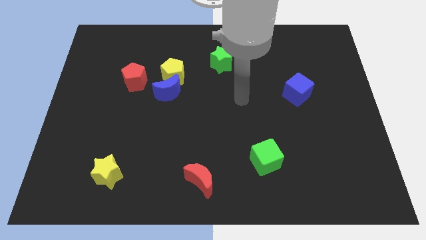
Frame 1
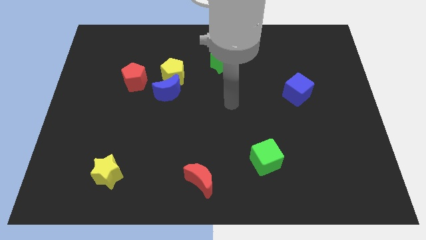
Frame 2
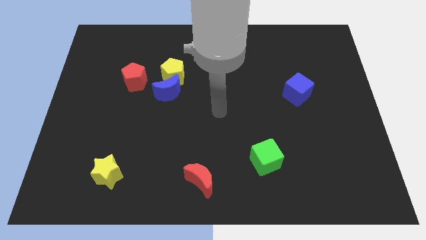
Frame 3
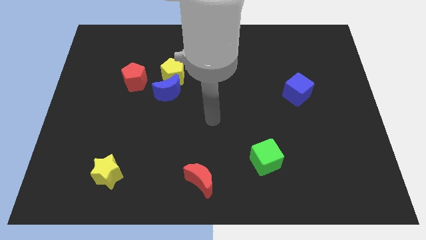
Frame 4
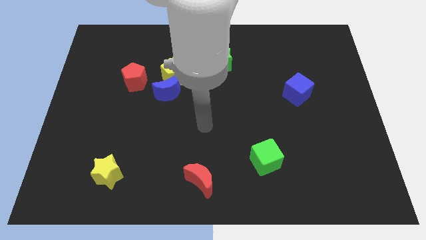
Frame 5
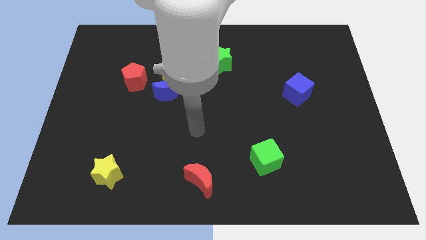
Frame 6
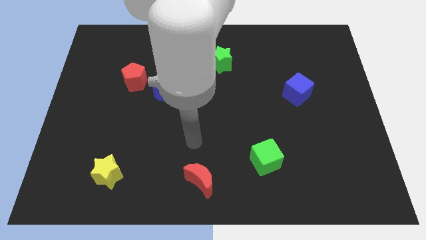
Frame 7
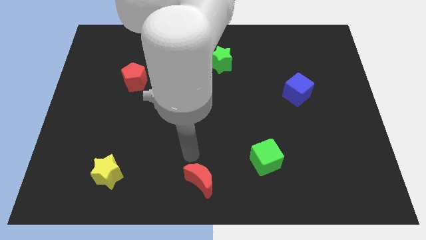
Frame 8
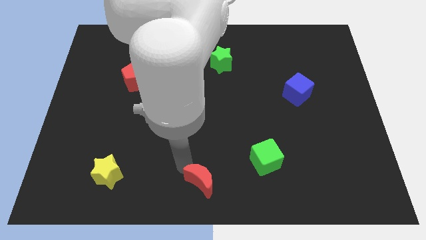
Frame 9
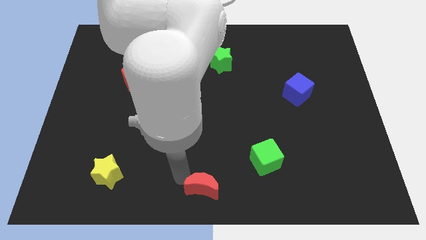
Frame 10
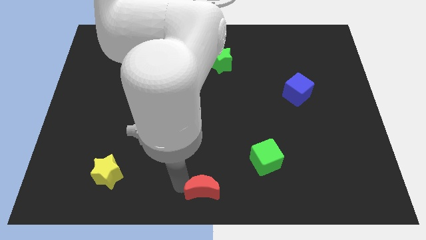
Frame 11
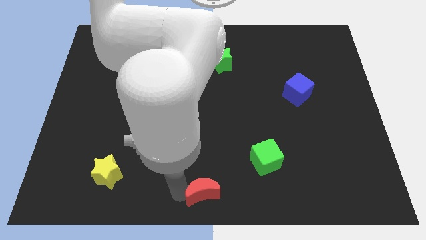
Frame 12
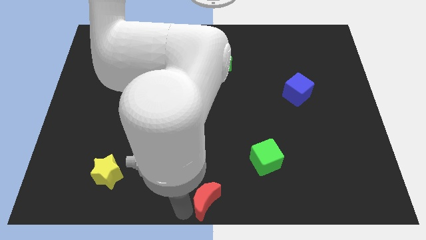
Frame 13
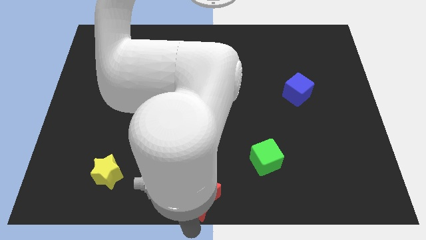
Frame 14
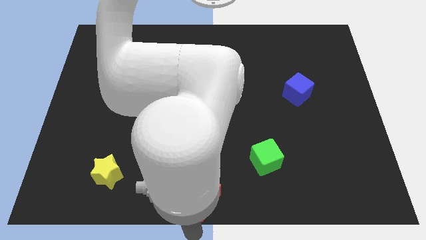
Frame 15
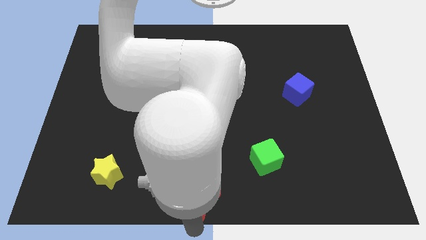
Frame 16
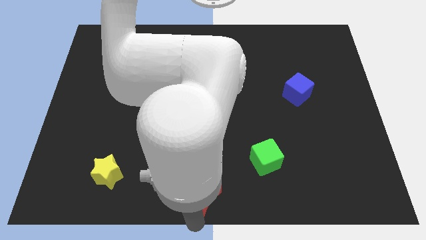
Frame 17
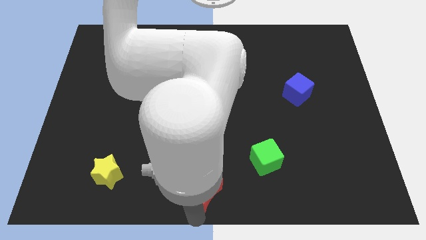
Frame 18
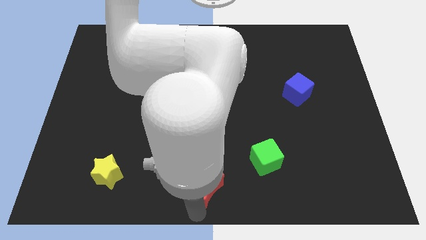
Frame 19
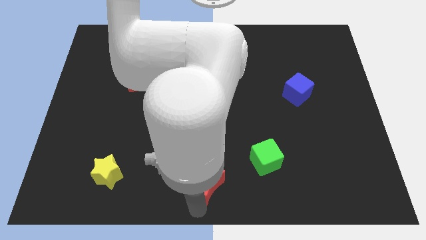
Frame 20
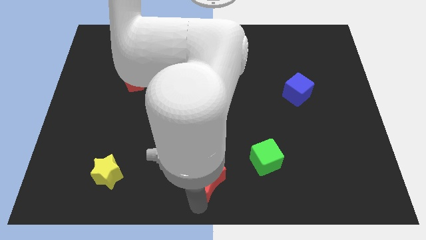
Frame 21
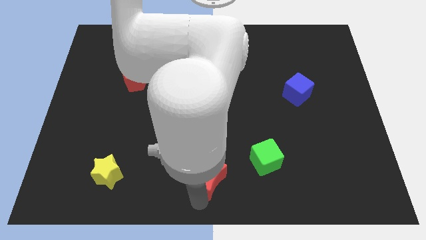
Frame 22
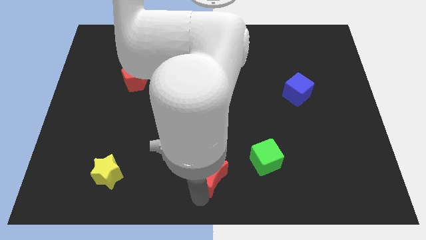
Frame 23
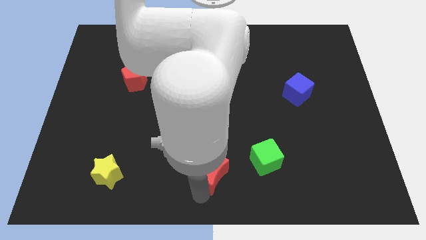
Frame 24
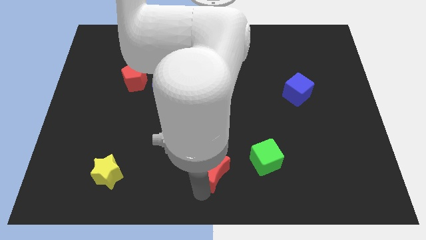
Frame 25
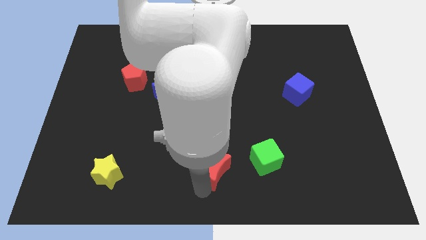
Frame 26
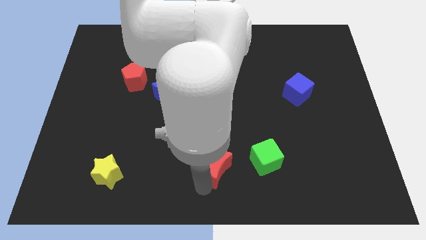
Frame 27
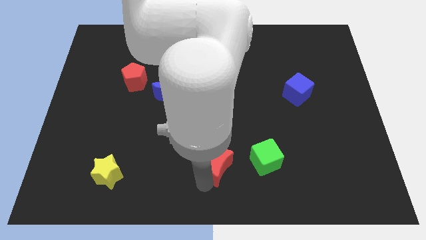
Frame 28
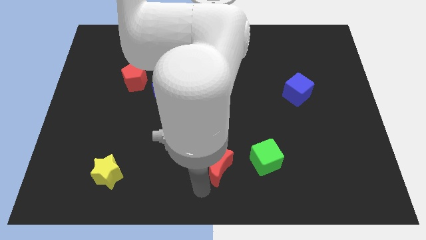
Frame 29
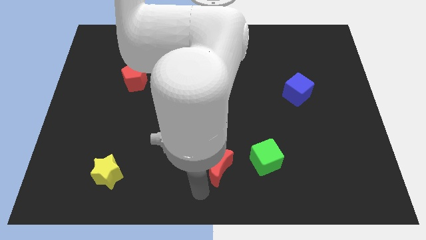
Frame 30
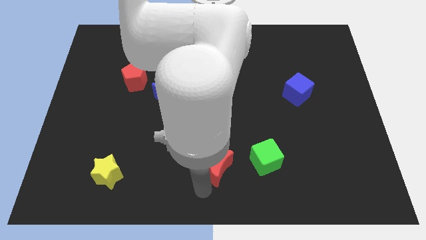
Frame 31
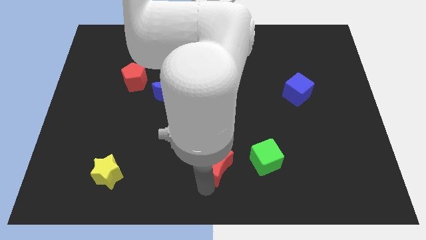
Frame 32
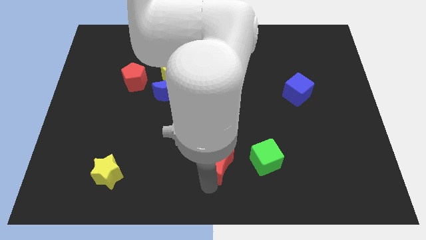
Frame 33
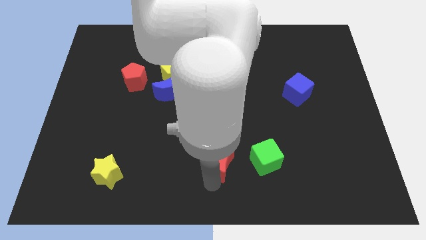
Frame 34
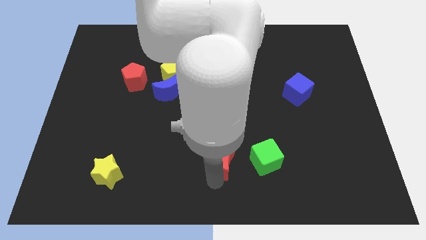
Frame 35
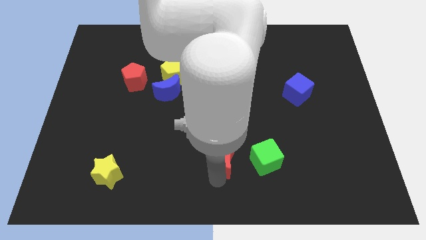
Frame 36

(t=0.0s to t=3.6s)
push the red moon a bit up and to the right diagonally

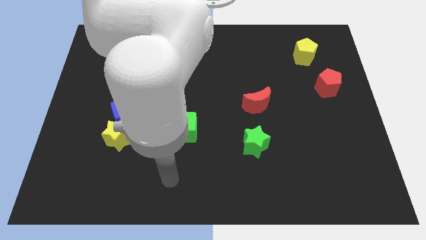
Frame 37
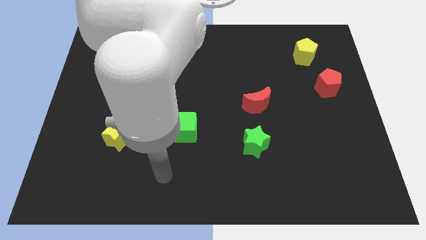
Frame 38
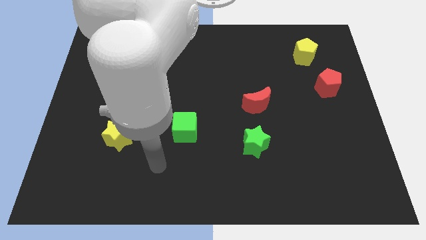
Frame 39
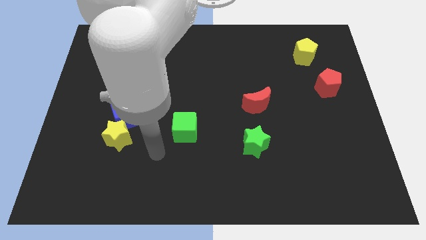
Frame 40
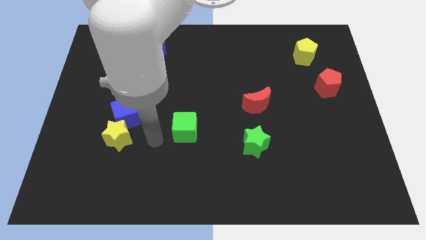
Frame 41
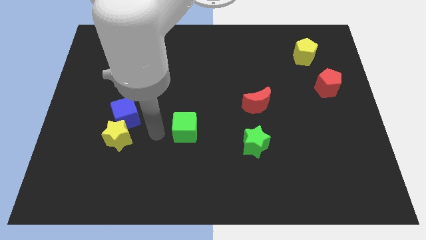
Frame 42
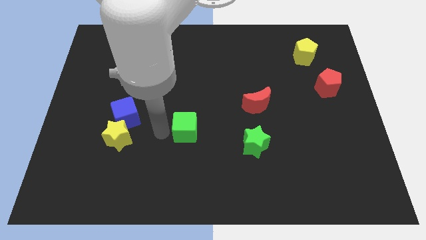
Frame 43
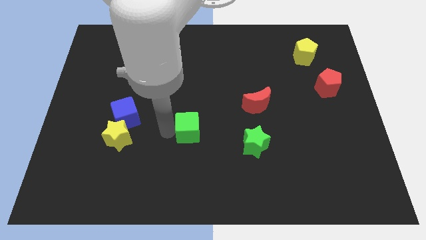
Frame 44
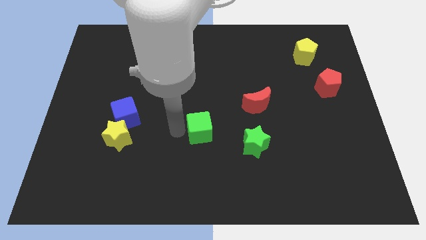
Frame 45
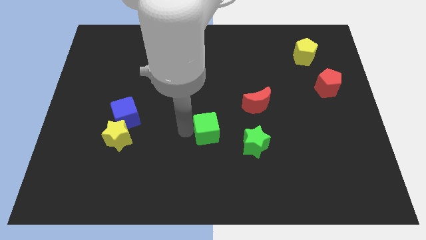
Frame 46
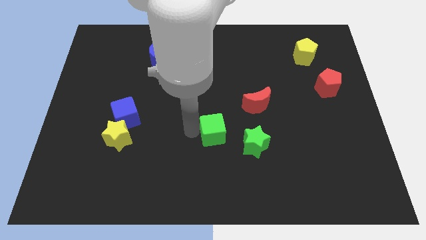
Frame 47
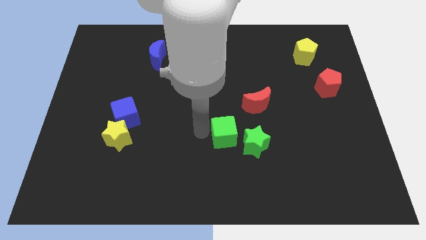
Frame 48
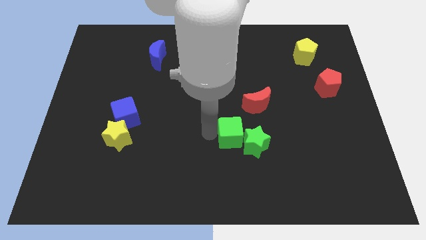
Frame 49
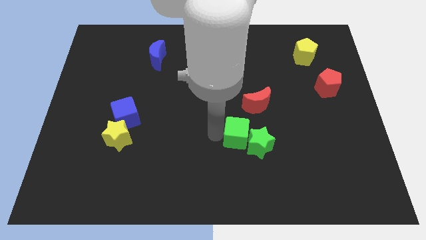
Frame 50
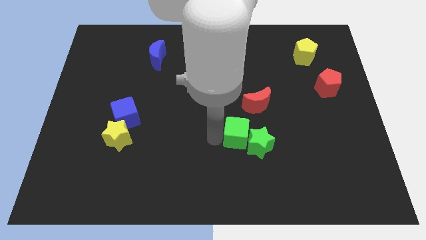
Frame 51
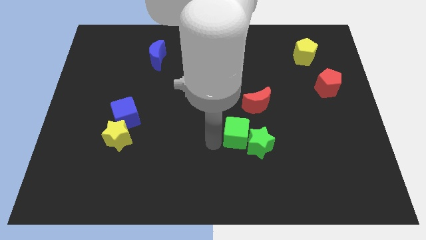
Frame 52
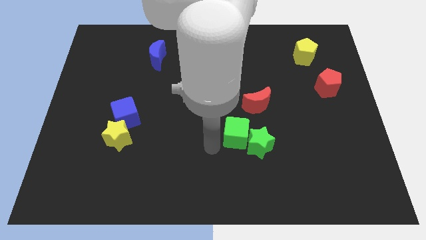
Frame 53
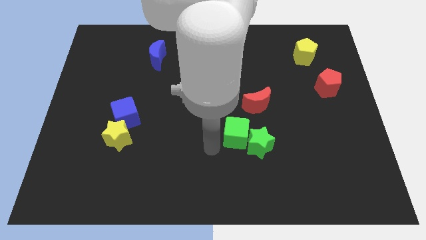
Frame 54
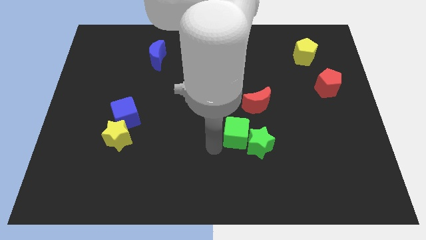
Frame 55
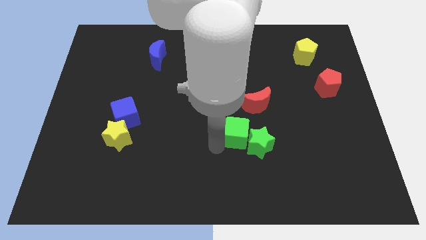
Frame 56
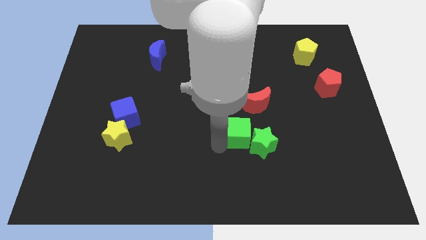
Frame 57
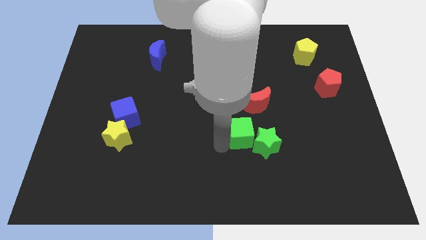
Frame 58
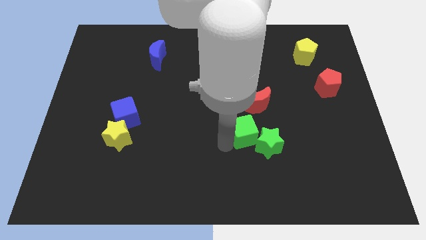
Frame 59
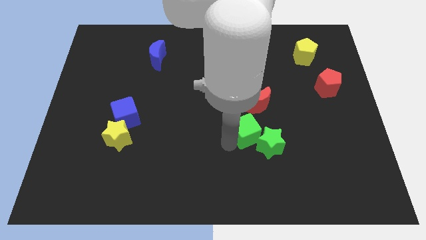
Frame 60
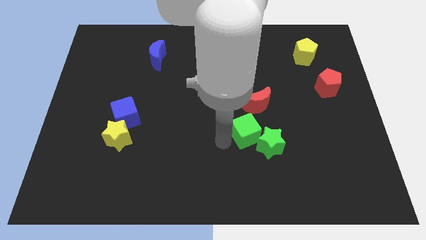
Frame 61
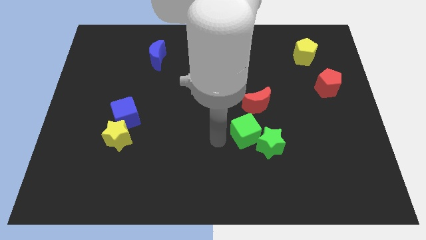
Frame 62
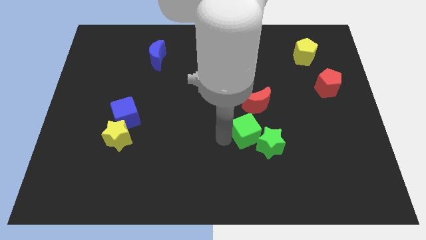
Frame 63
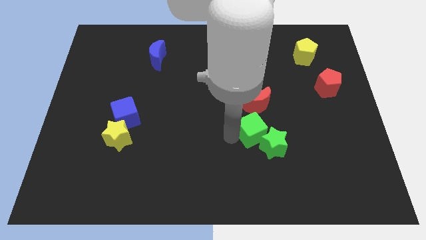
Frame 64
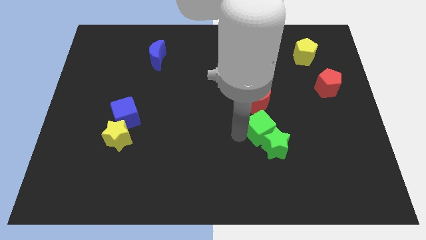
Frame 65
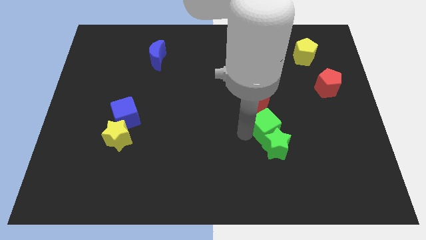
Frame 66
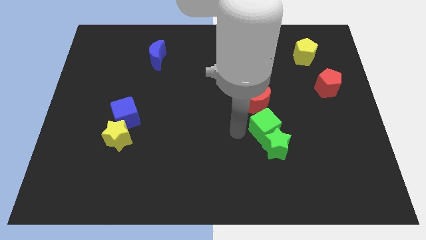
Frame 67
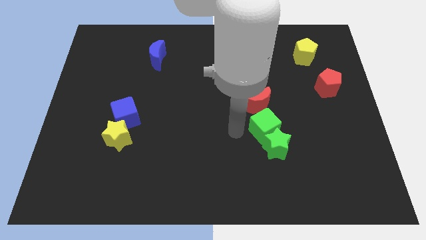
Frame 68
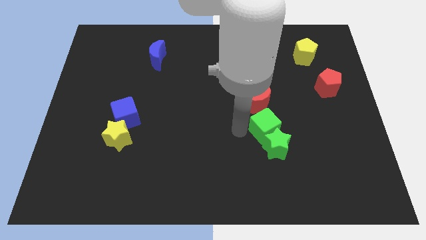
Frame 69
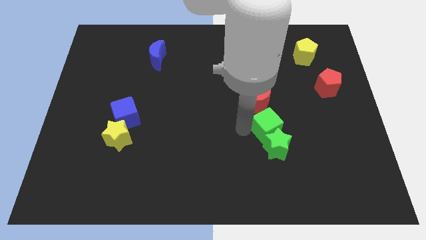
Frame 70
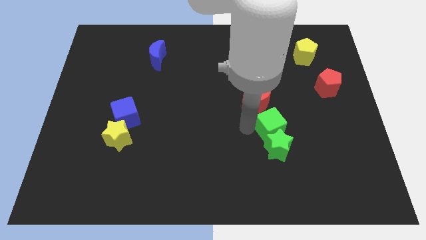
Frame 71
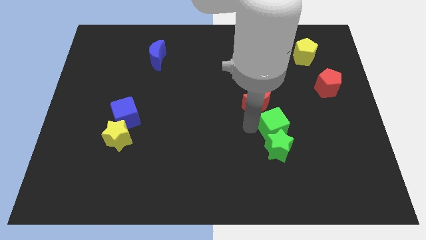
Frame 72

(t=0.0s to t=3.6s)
slide the green cube right

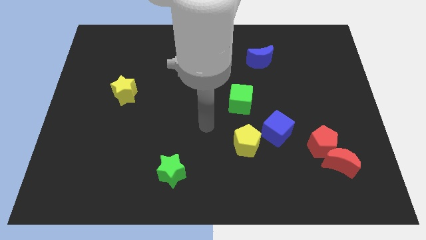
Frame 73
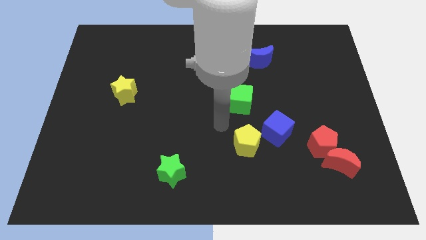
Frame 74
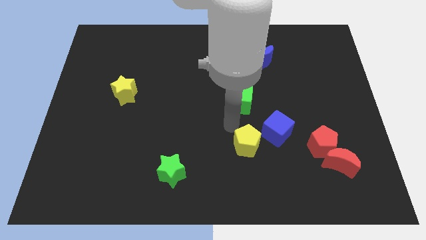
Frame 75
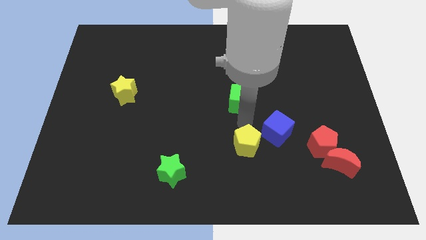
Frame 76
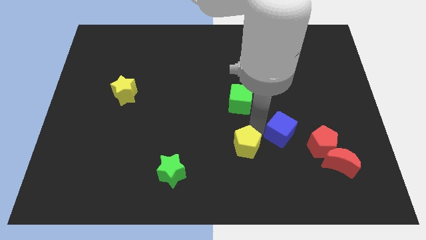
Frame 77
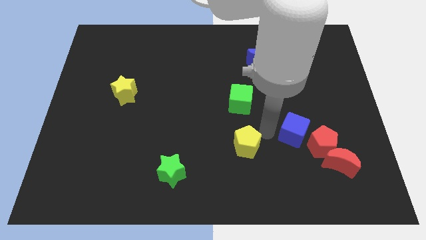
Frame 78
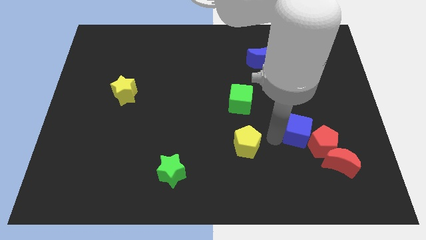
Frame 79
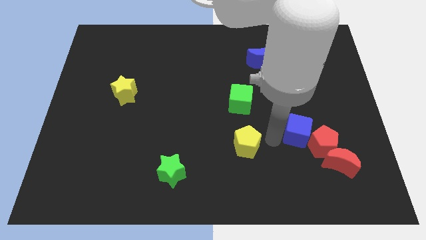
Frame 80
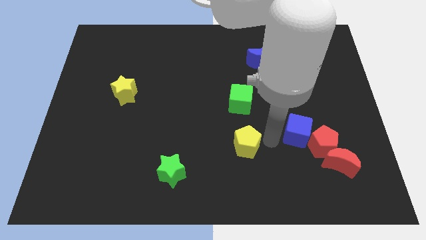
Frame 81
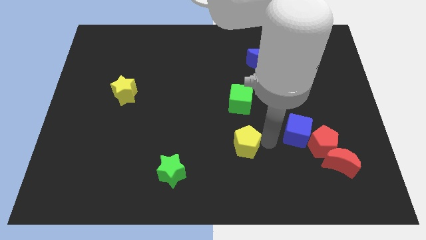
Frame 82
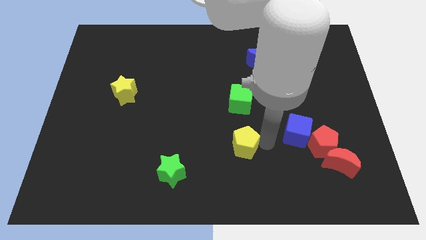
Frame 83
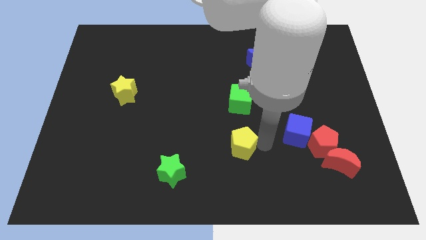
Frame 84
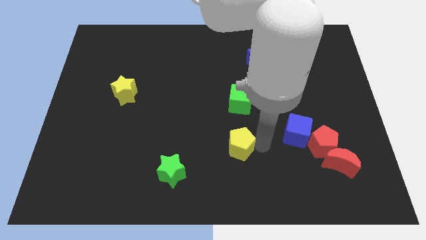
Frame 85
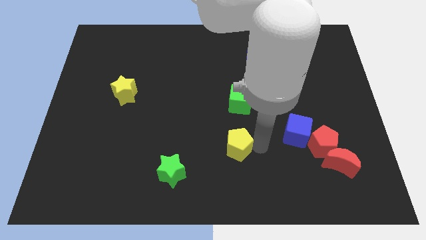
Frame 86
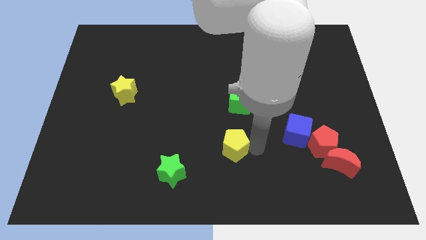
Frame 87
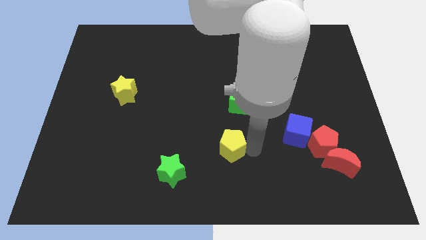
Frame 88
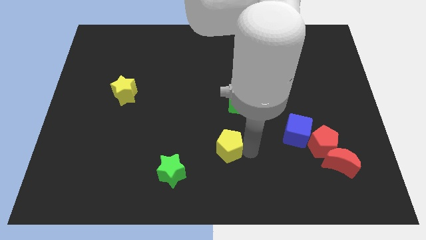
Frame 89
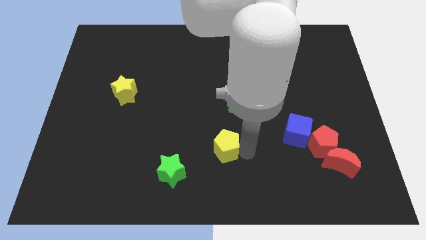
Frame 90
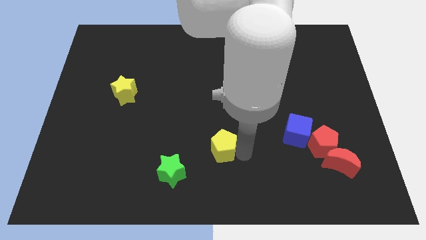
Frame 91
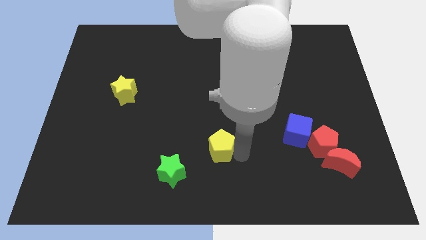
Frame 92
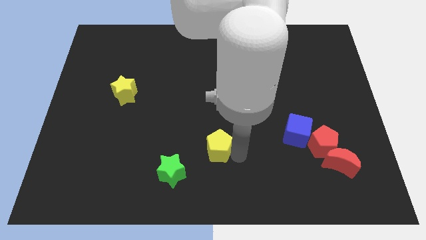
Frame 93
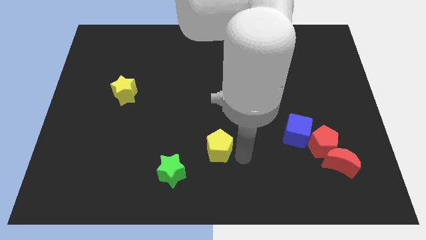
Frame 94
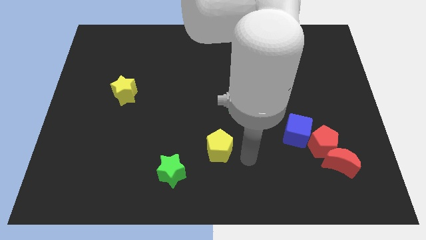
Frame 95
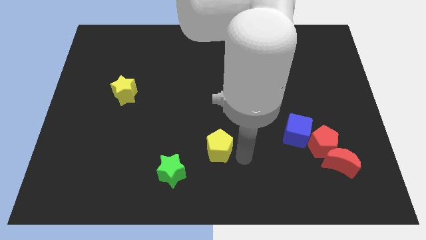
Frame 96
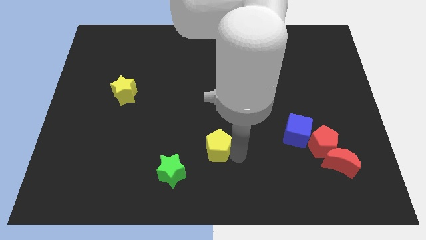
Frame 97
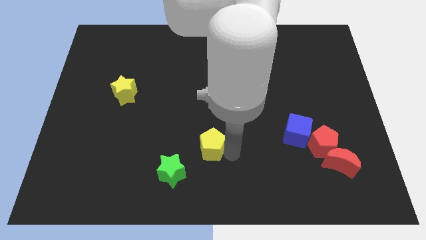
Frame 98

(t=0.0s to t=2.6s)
push the yellow pentagon to the left a bit
